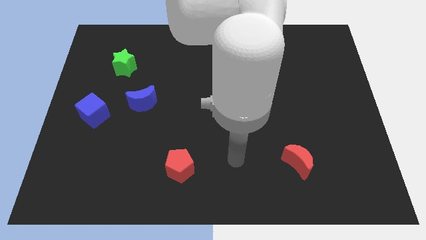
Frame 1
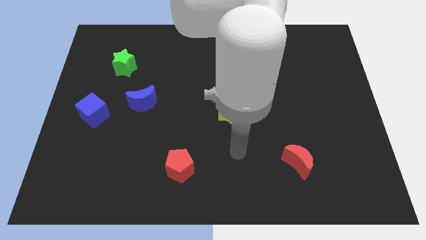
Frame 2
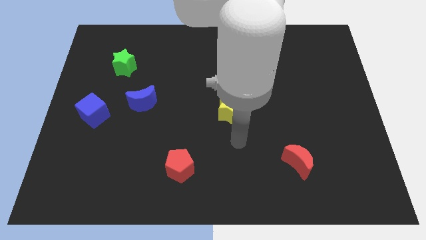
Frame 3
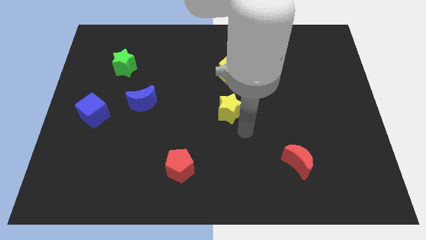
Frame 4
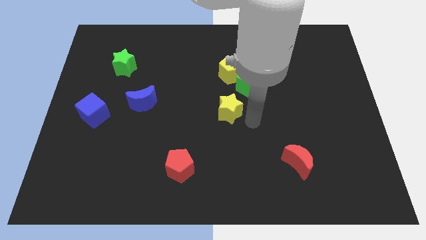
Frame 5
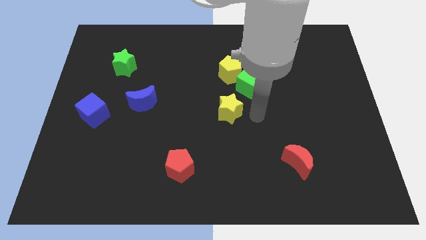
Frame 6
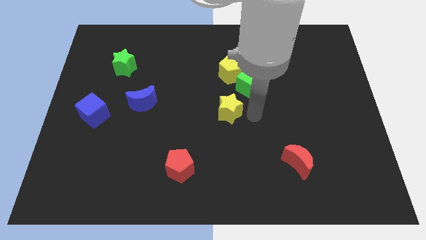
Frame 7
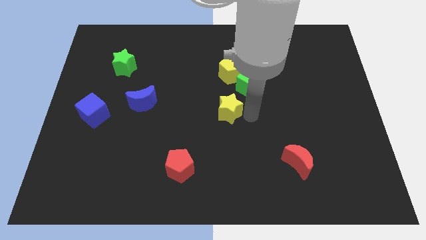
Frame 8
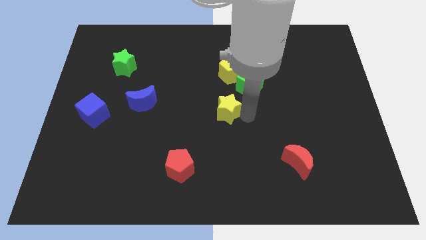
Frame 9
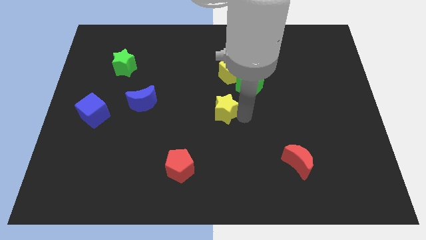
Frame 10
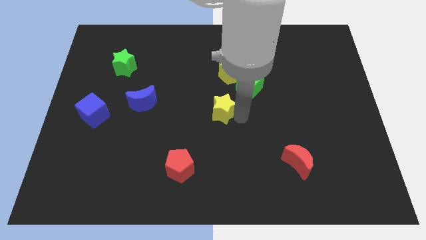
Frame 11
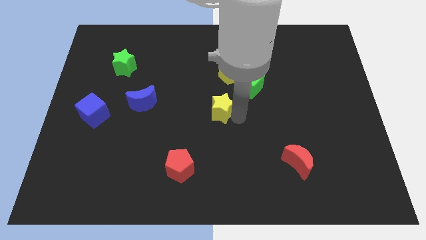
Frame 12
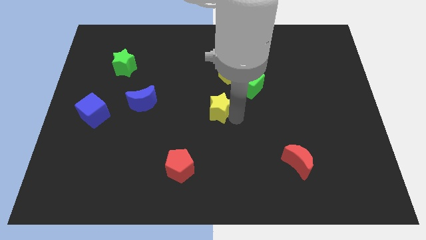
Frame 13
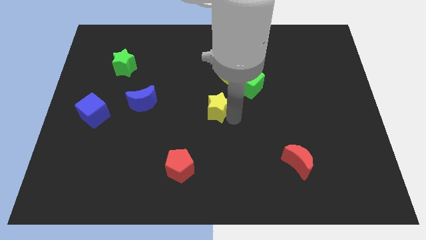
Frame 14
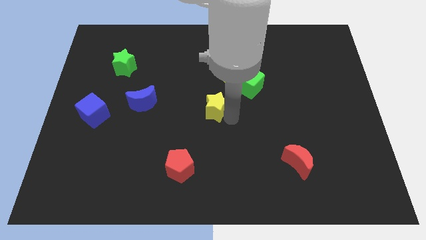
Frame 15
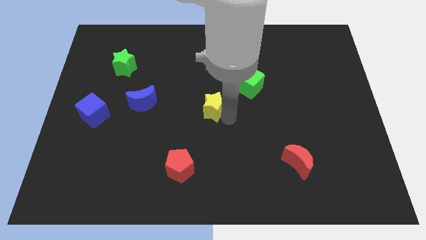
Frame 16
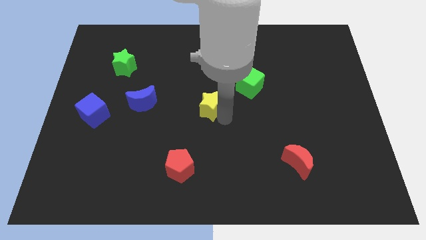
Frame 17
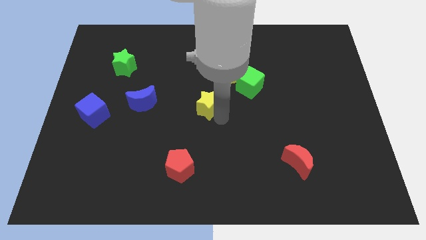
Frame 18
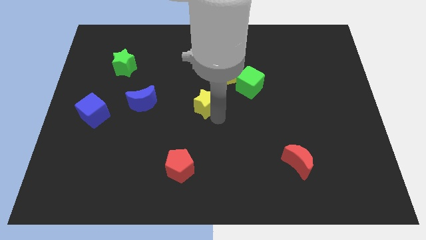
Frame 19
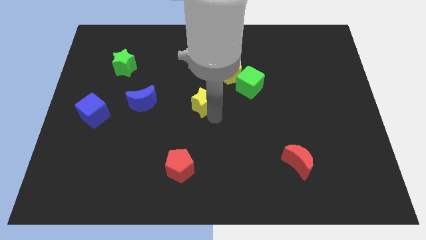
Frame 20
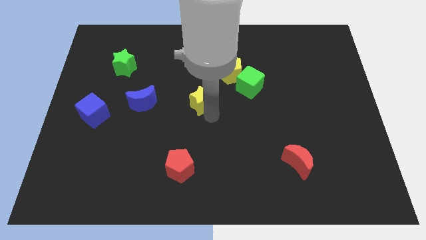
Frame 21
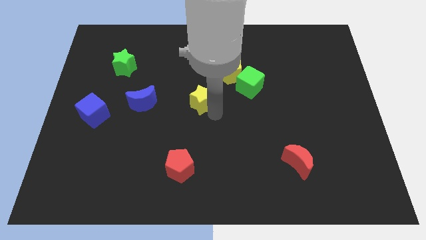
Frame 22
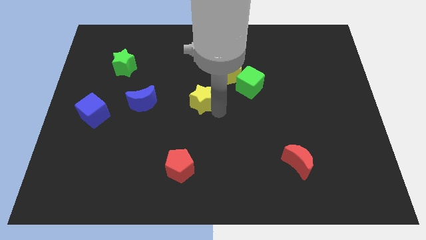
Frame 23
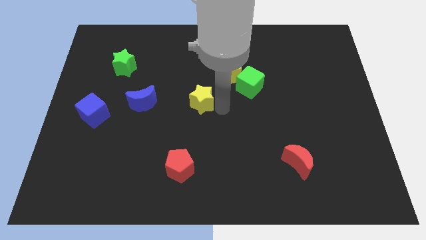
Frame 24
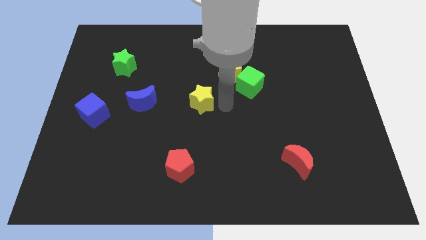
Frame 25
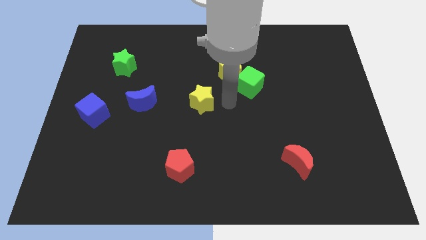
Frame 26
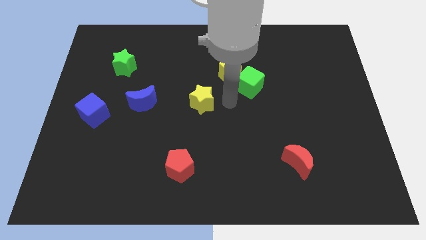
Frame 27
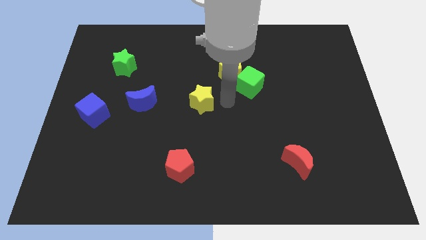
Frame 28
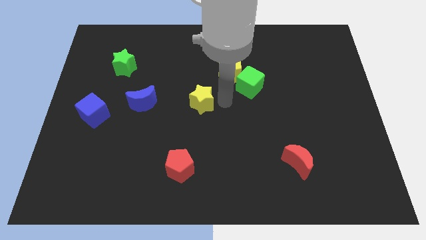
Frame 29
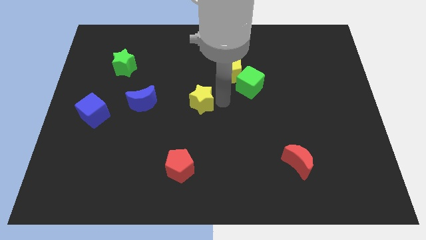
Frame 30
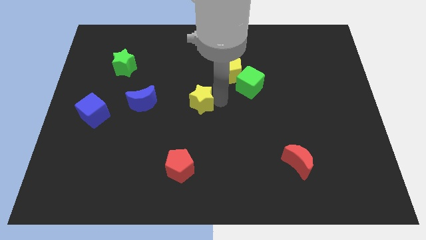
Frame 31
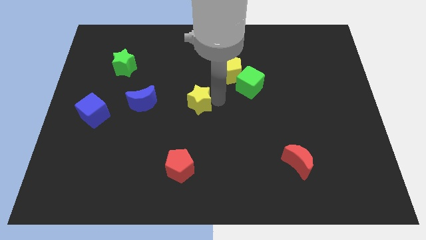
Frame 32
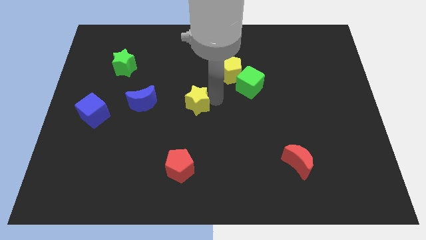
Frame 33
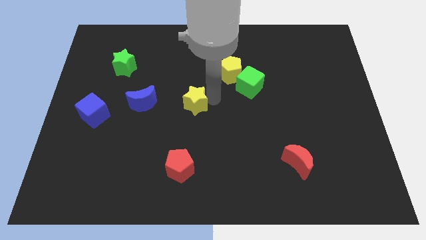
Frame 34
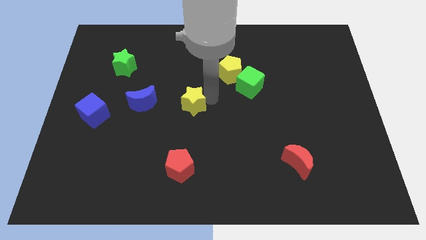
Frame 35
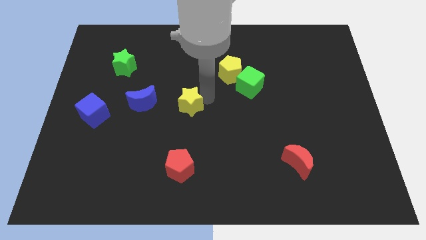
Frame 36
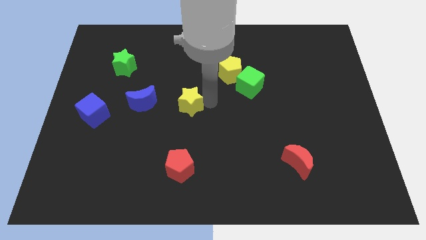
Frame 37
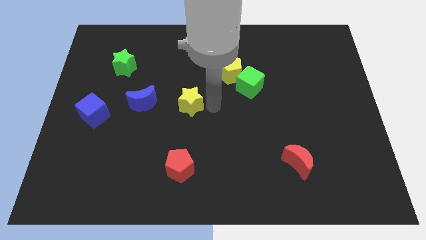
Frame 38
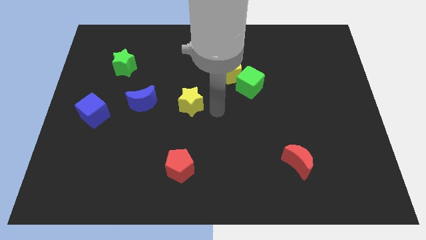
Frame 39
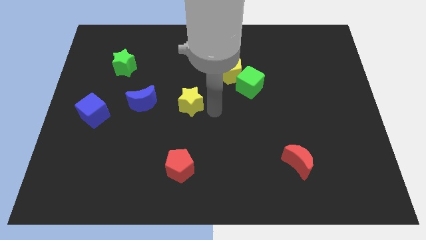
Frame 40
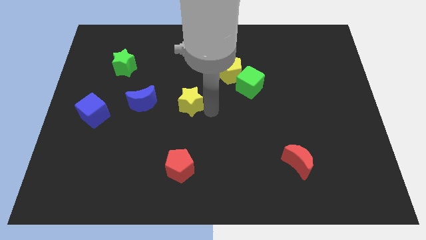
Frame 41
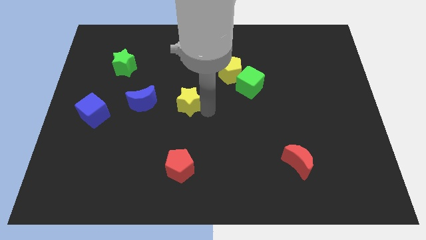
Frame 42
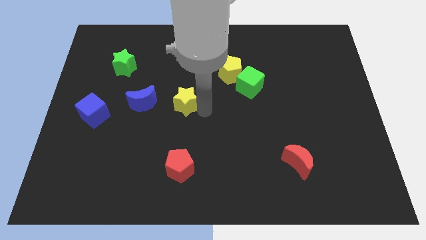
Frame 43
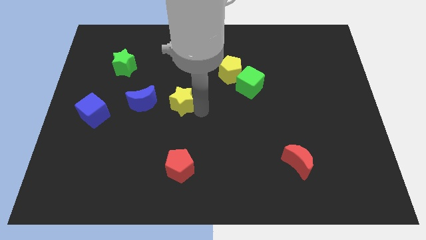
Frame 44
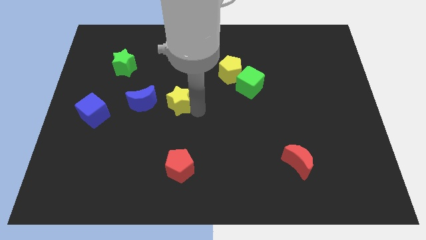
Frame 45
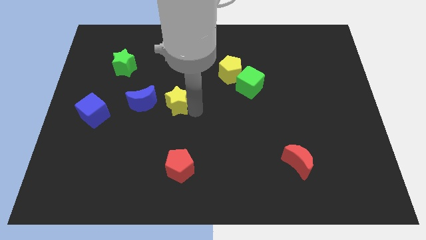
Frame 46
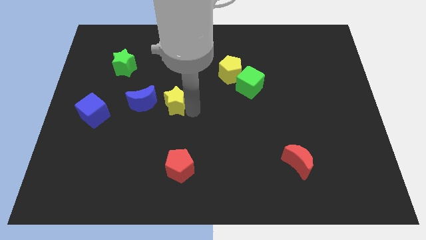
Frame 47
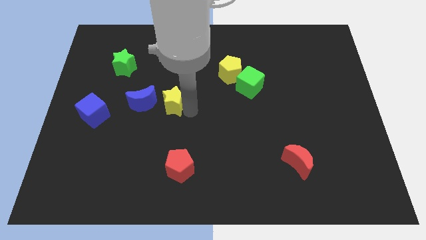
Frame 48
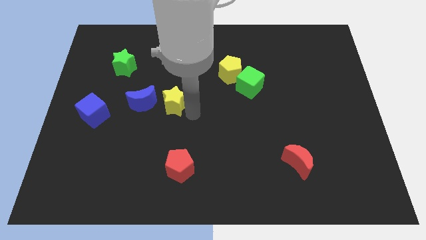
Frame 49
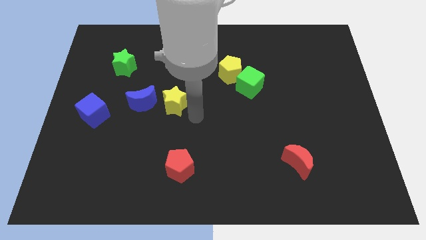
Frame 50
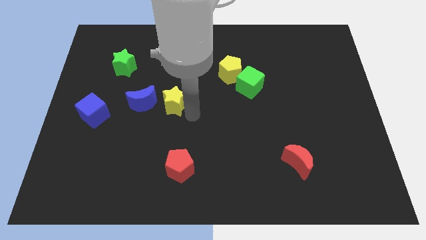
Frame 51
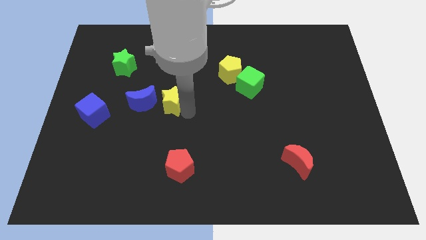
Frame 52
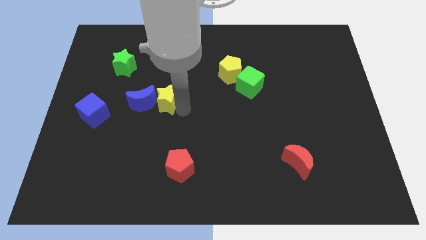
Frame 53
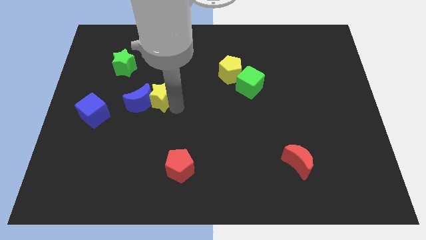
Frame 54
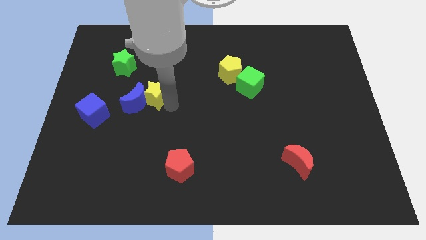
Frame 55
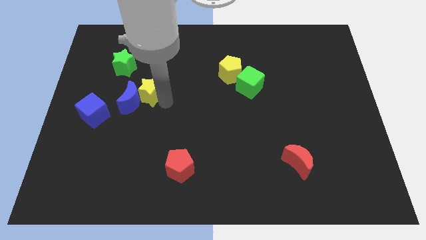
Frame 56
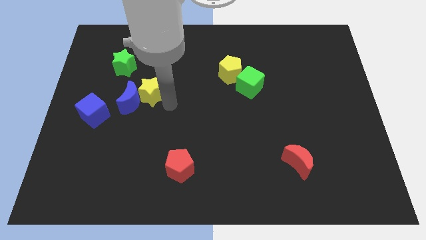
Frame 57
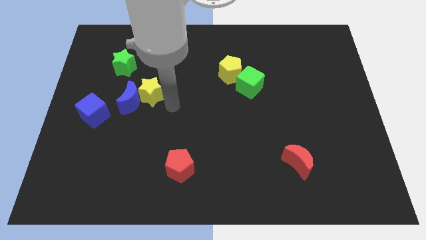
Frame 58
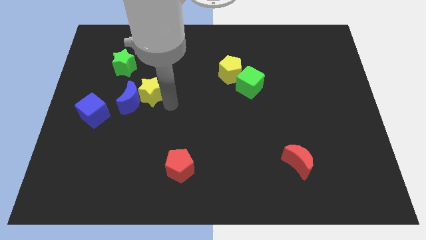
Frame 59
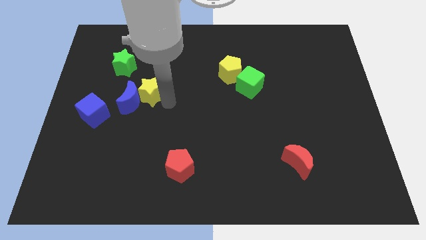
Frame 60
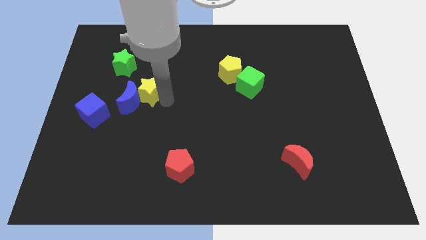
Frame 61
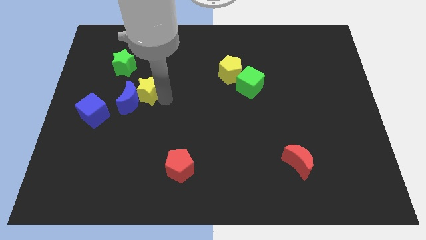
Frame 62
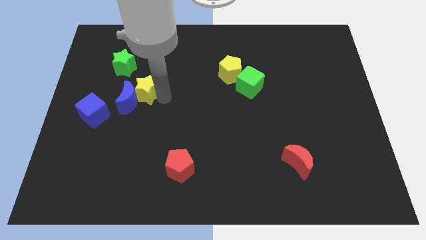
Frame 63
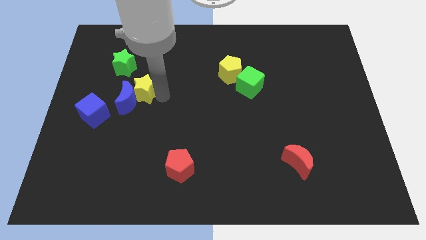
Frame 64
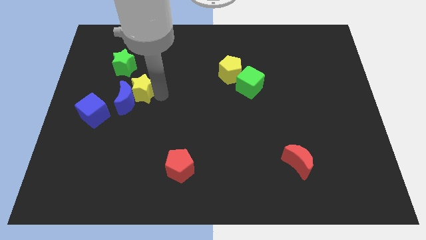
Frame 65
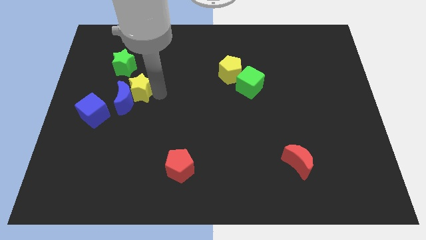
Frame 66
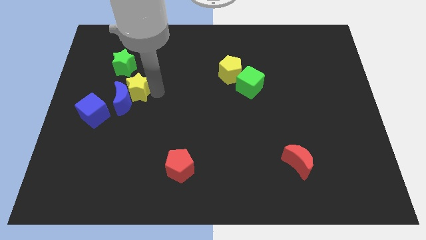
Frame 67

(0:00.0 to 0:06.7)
put the yellow star to the bottom side of the green star

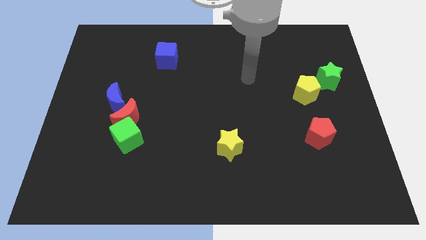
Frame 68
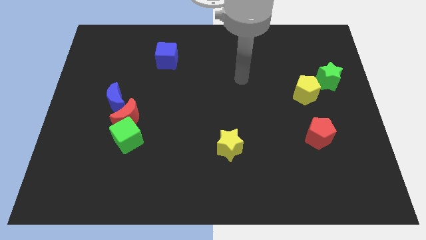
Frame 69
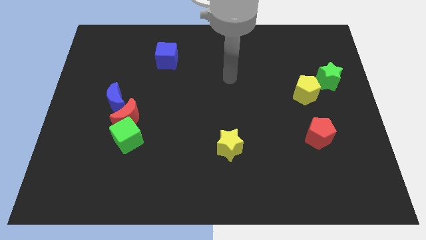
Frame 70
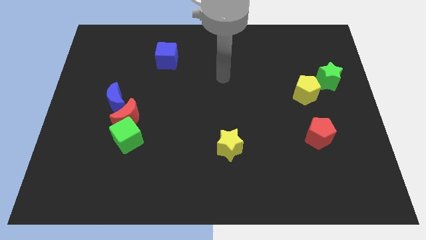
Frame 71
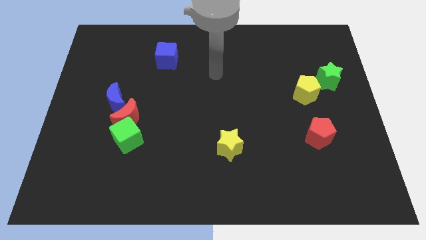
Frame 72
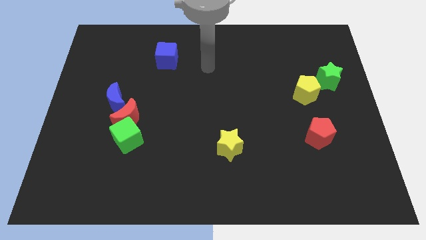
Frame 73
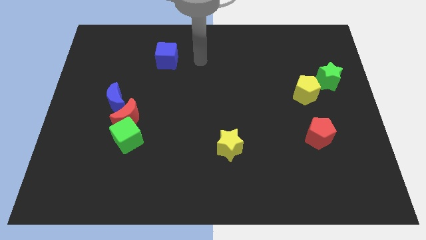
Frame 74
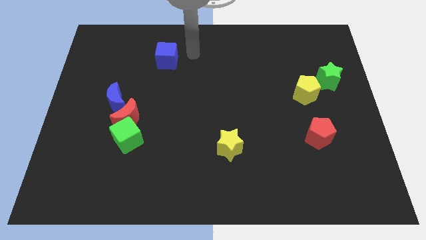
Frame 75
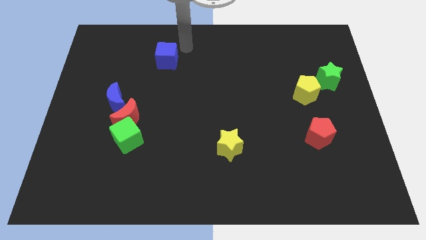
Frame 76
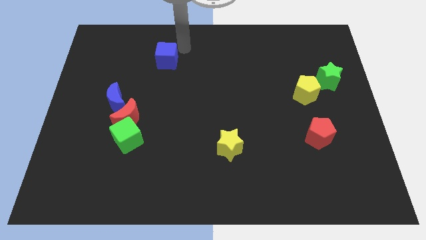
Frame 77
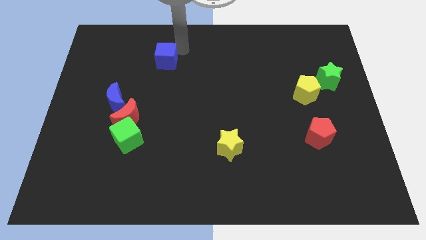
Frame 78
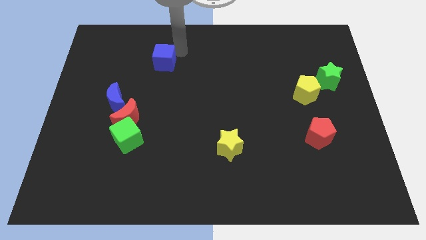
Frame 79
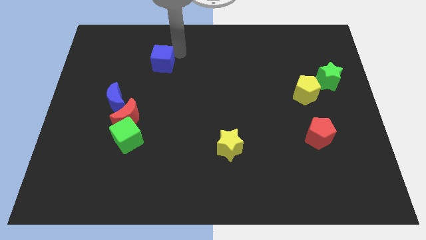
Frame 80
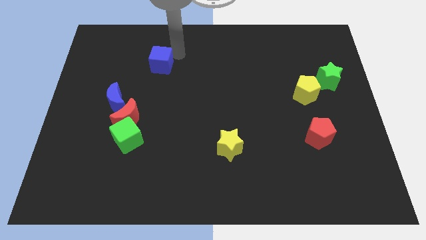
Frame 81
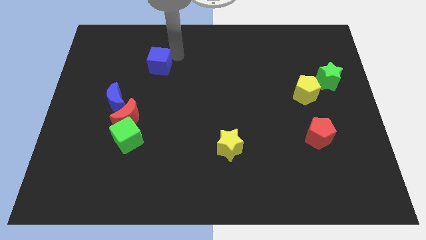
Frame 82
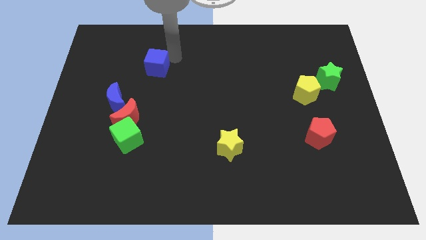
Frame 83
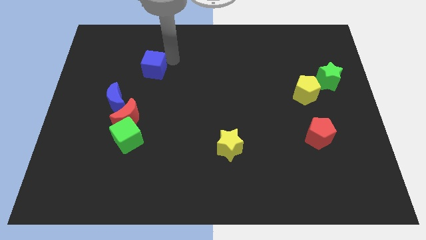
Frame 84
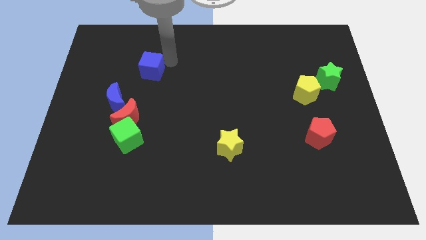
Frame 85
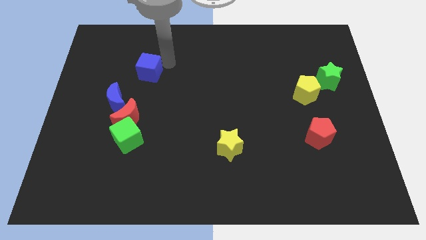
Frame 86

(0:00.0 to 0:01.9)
push the blue cube to the top side of the red moon
